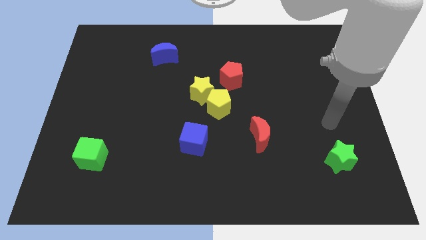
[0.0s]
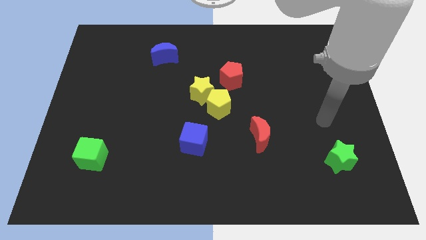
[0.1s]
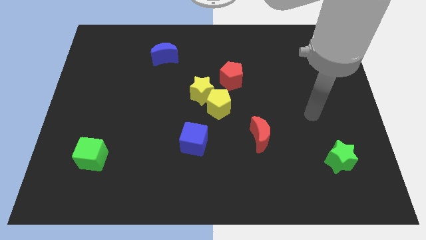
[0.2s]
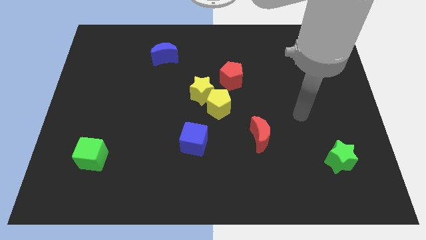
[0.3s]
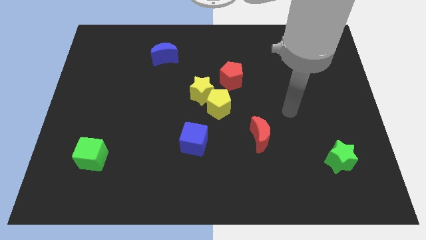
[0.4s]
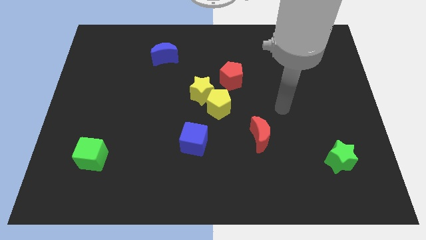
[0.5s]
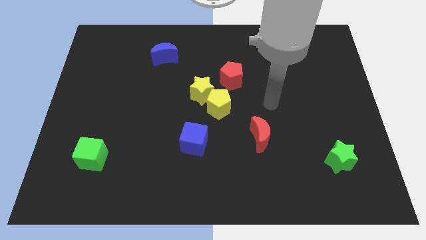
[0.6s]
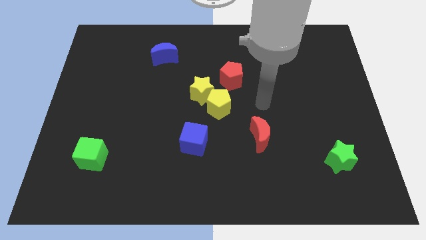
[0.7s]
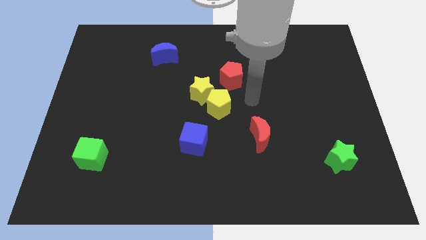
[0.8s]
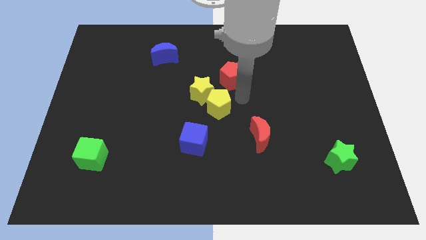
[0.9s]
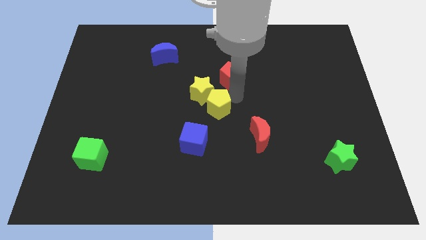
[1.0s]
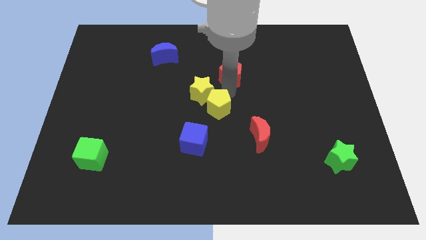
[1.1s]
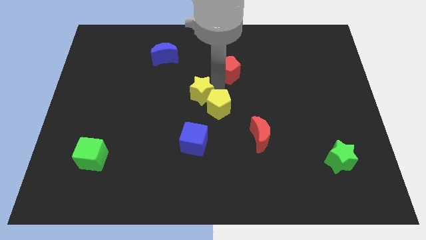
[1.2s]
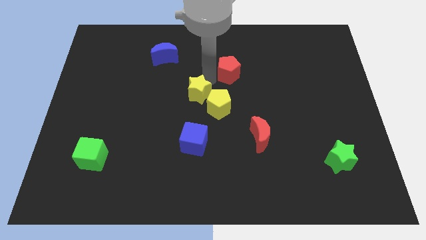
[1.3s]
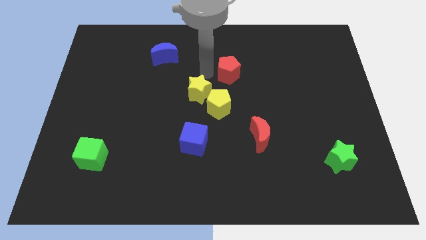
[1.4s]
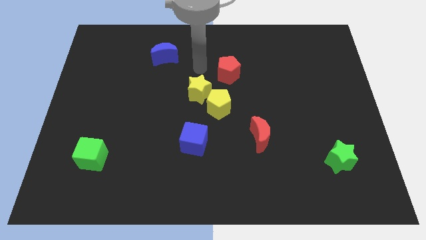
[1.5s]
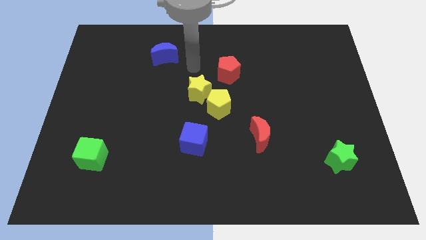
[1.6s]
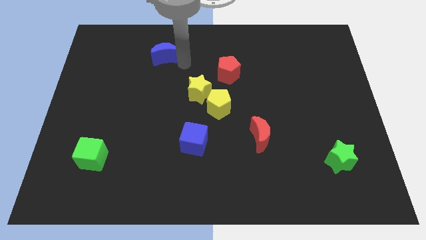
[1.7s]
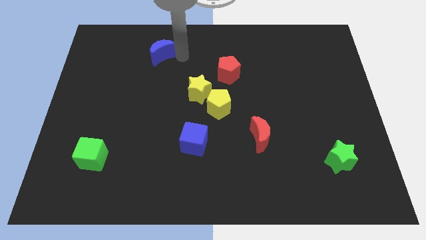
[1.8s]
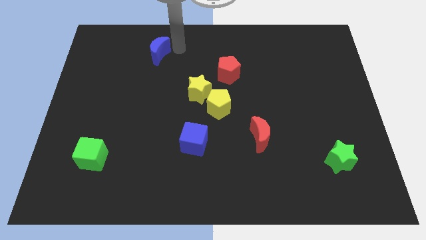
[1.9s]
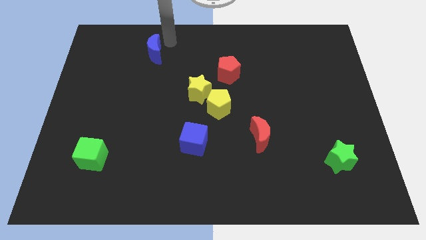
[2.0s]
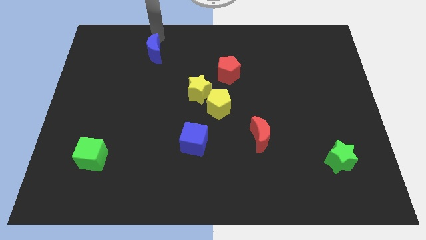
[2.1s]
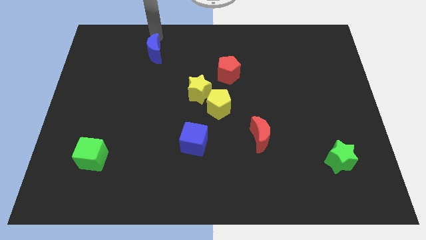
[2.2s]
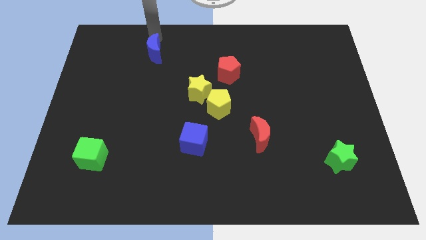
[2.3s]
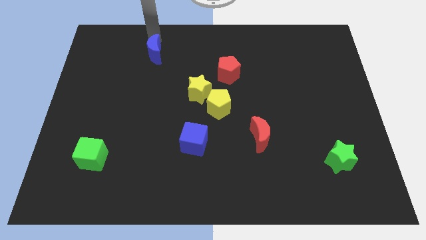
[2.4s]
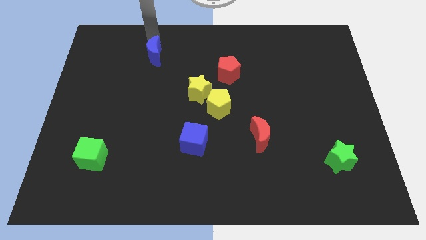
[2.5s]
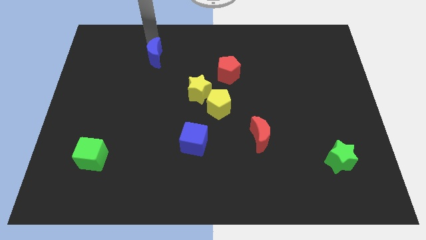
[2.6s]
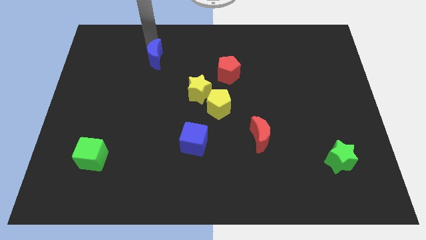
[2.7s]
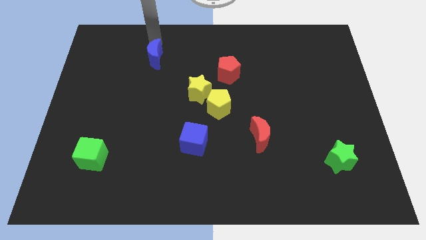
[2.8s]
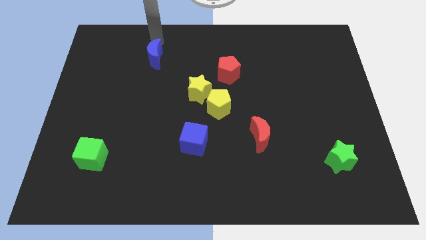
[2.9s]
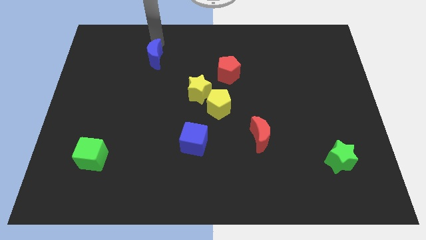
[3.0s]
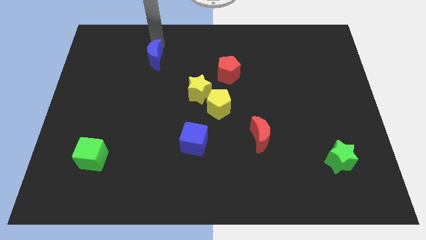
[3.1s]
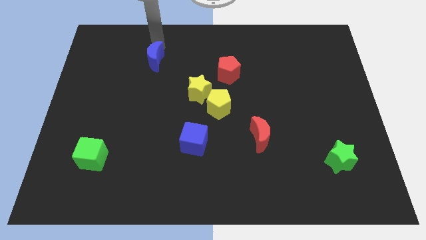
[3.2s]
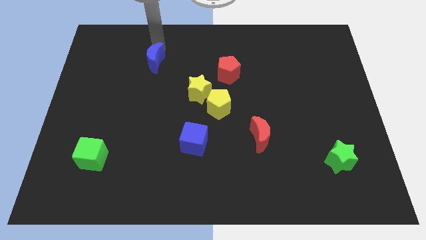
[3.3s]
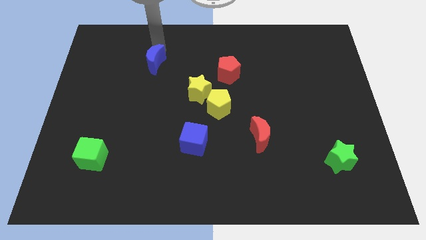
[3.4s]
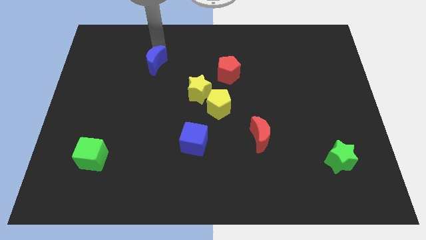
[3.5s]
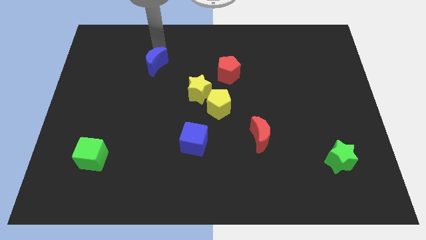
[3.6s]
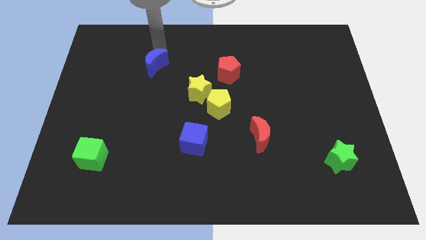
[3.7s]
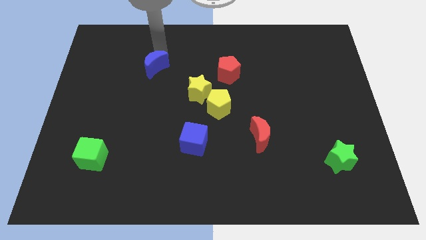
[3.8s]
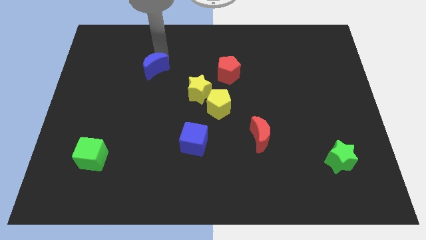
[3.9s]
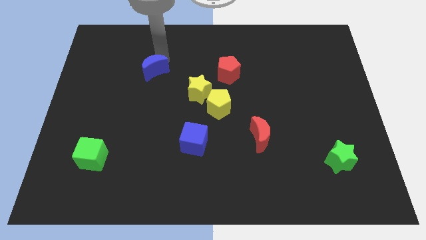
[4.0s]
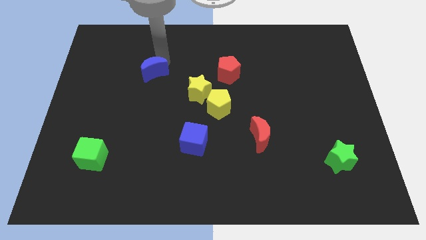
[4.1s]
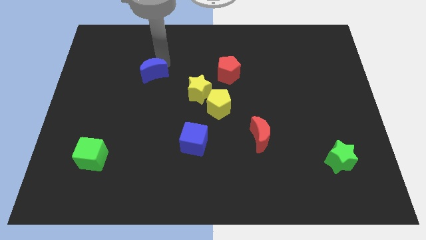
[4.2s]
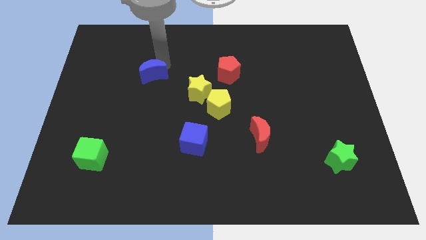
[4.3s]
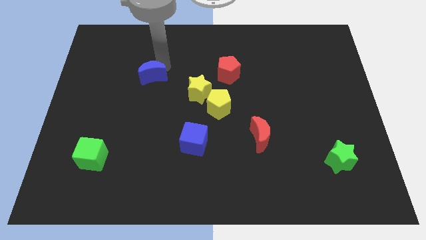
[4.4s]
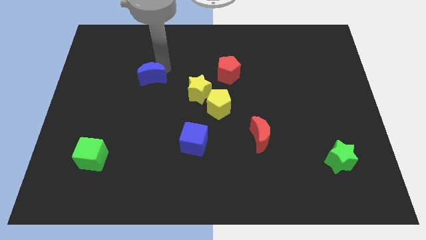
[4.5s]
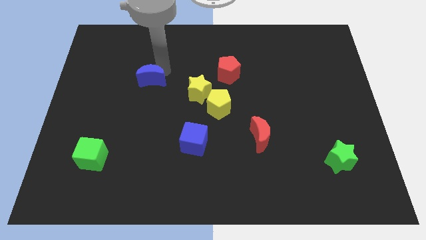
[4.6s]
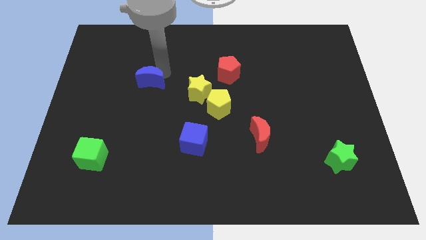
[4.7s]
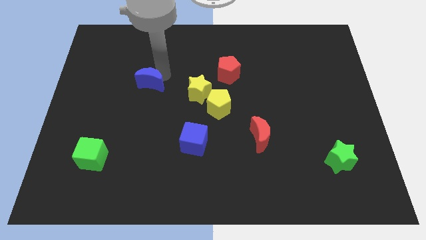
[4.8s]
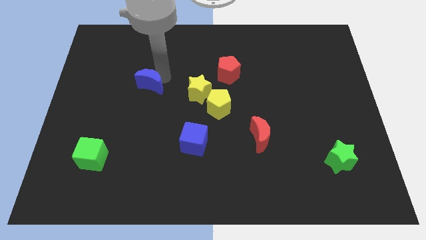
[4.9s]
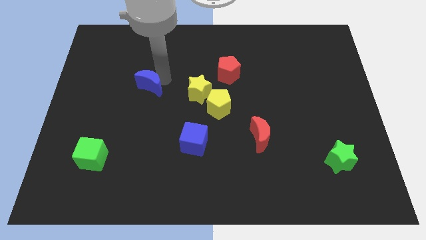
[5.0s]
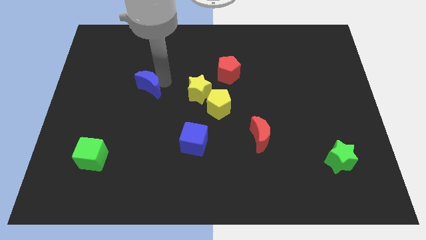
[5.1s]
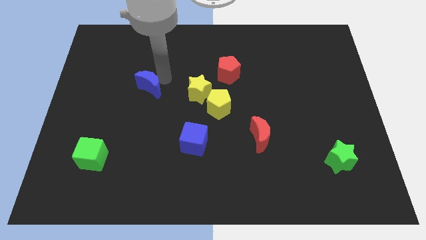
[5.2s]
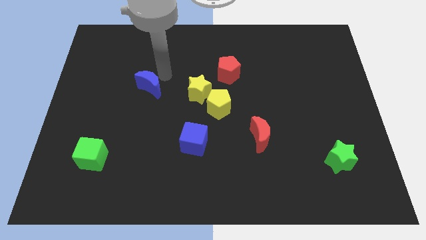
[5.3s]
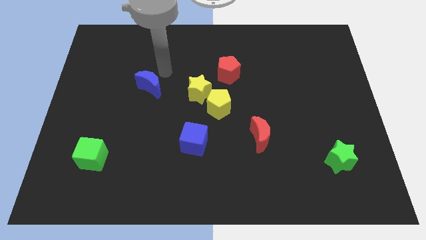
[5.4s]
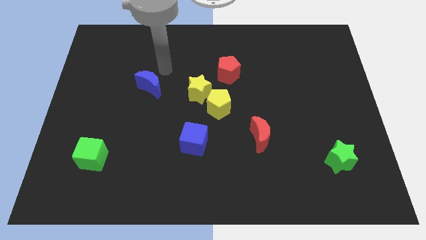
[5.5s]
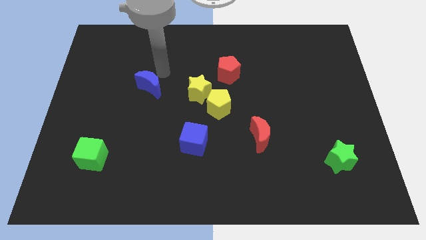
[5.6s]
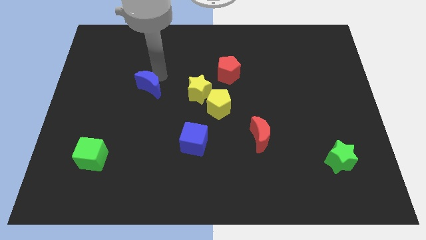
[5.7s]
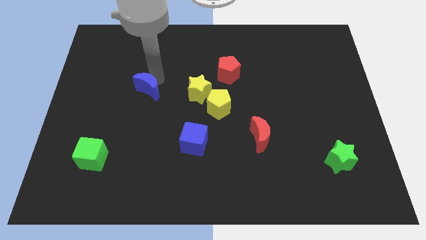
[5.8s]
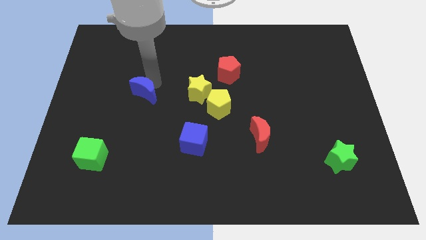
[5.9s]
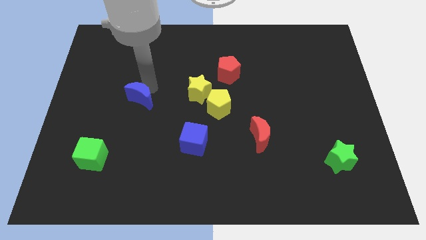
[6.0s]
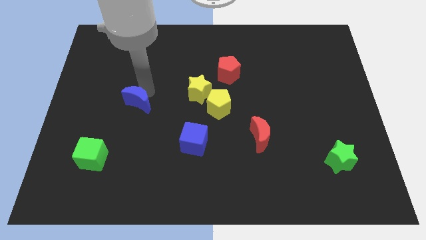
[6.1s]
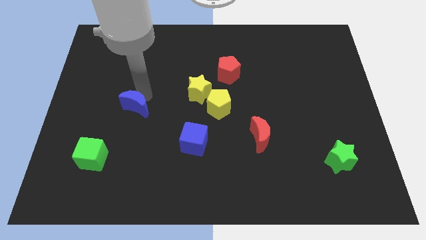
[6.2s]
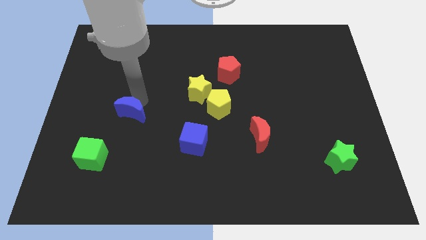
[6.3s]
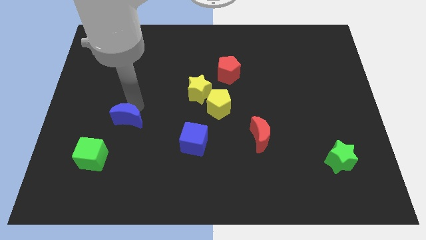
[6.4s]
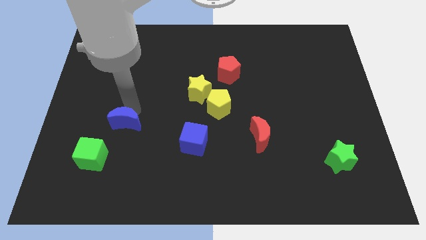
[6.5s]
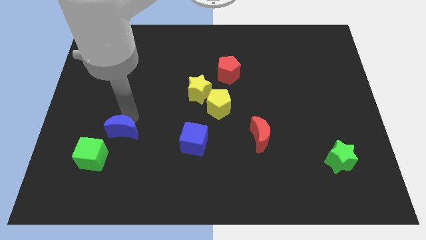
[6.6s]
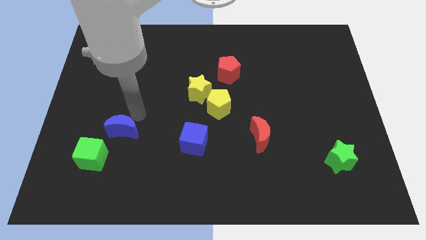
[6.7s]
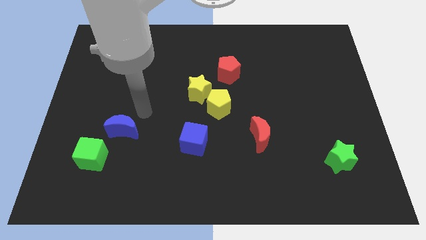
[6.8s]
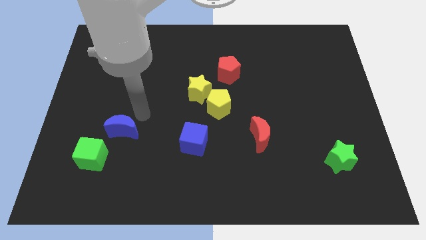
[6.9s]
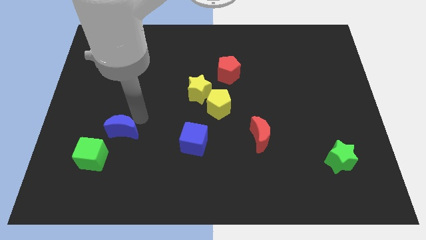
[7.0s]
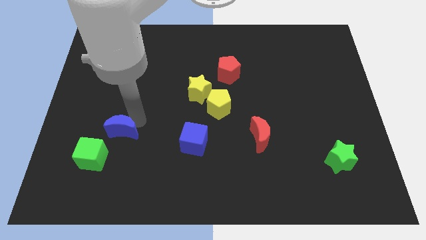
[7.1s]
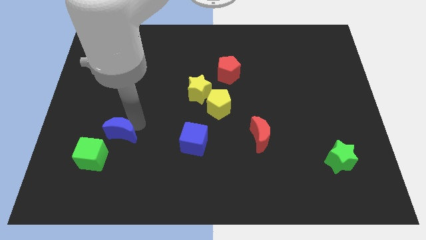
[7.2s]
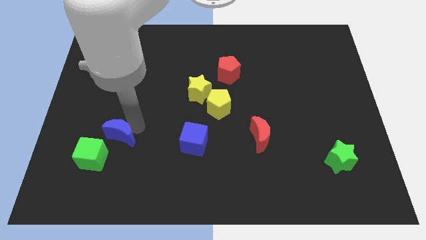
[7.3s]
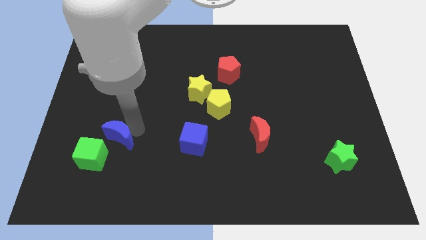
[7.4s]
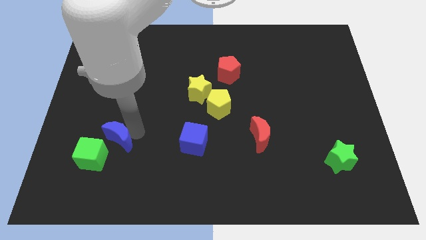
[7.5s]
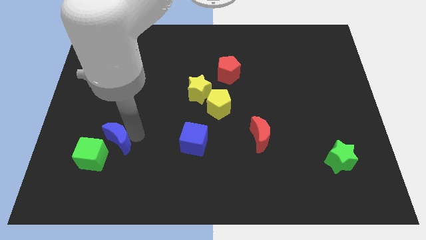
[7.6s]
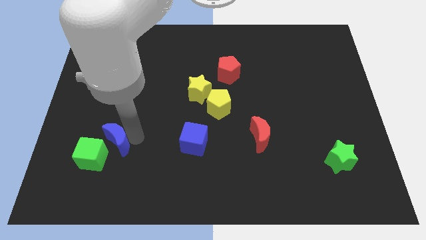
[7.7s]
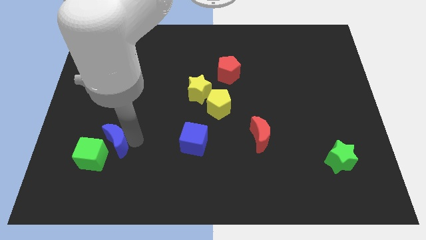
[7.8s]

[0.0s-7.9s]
slide the blue moon towards the green cube
